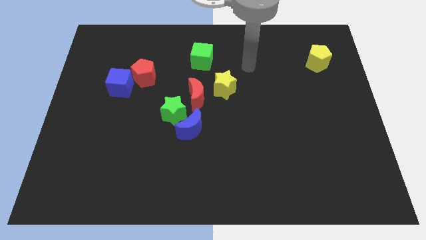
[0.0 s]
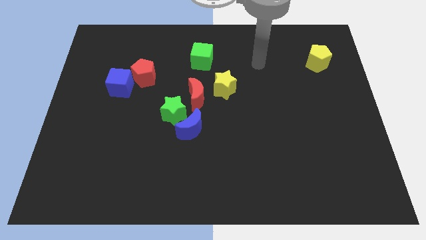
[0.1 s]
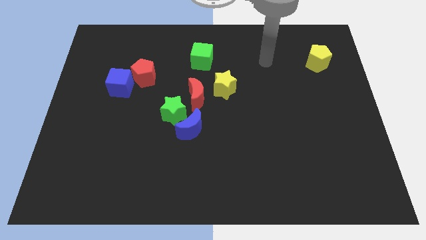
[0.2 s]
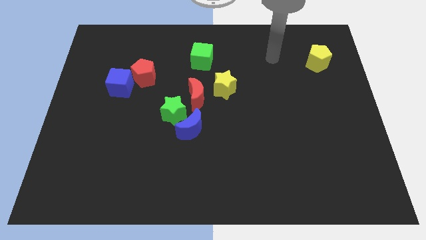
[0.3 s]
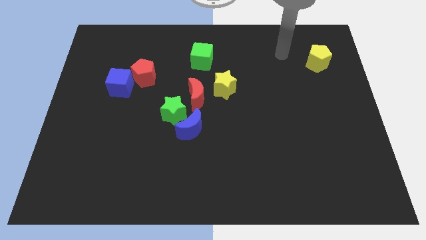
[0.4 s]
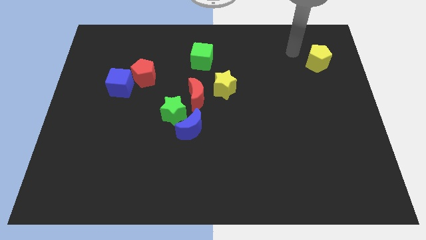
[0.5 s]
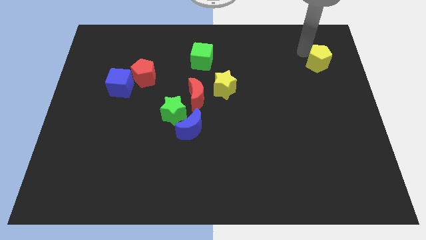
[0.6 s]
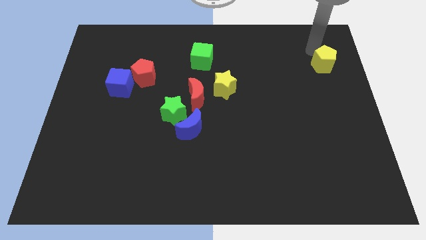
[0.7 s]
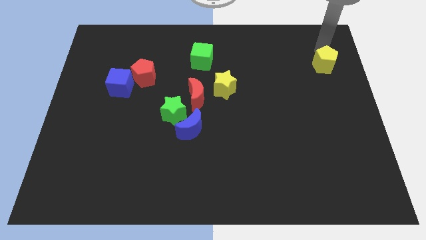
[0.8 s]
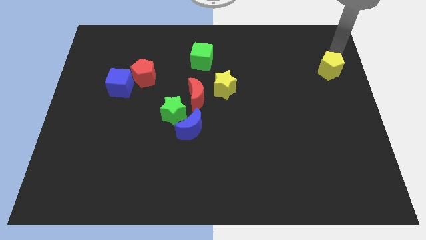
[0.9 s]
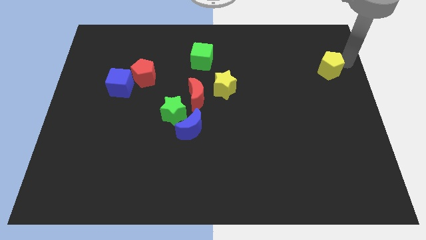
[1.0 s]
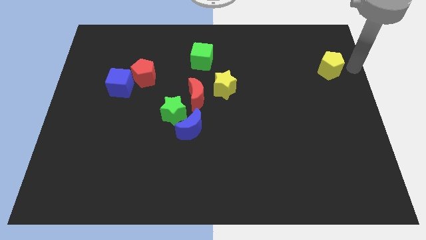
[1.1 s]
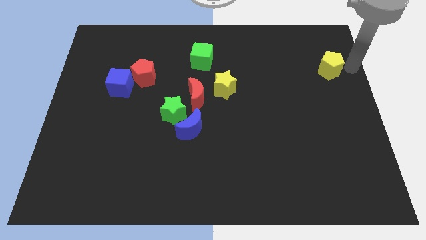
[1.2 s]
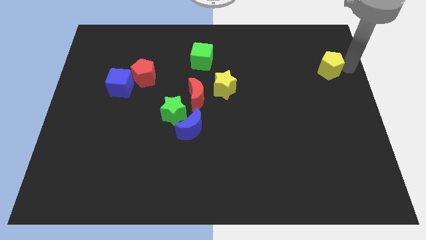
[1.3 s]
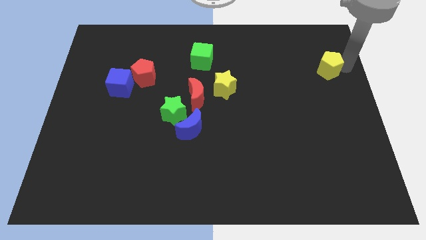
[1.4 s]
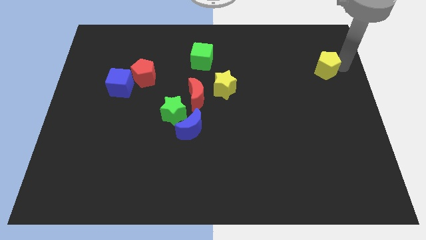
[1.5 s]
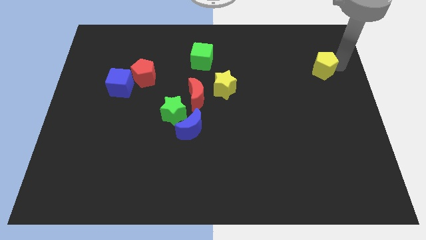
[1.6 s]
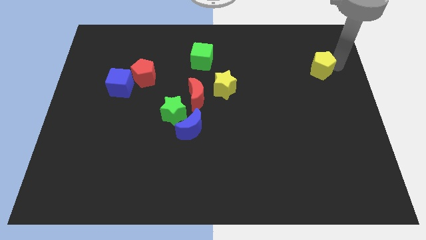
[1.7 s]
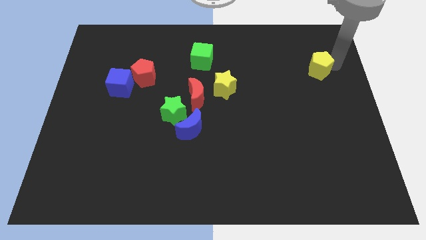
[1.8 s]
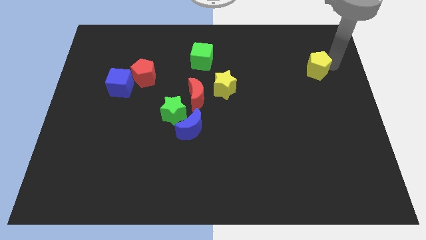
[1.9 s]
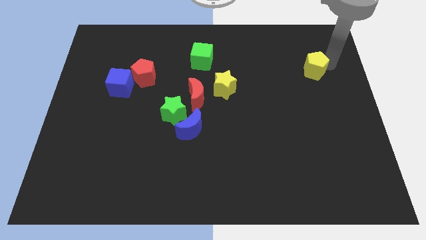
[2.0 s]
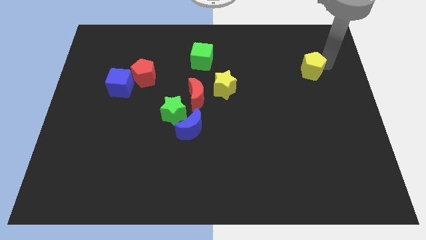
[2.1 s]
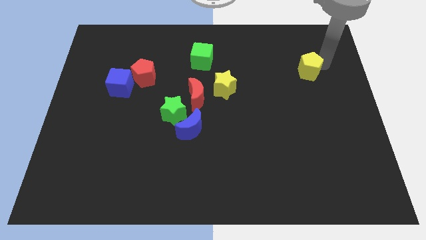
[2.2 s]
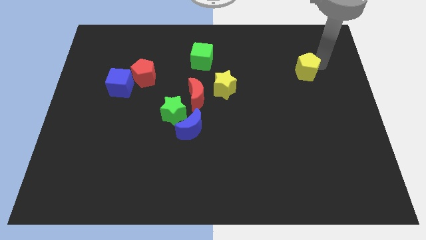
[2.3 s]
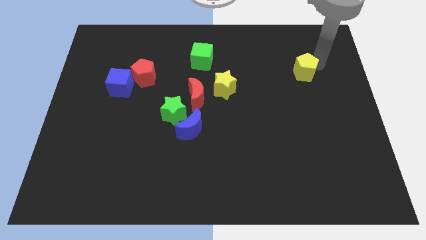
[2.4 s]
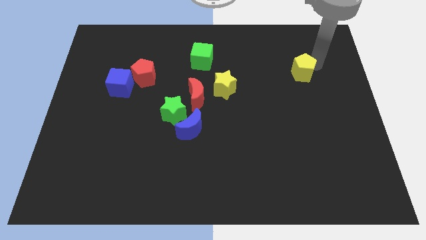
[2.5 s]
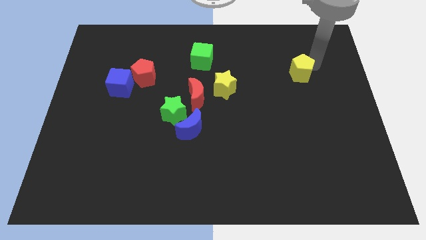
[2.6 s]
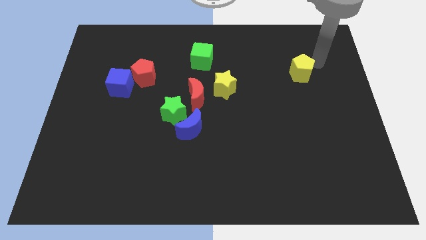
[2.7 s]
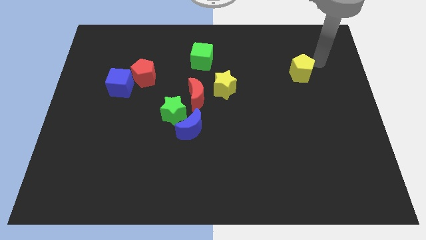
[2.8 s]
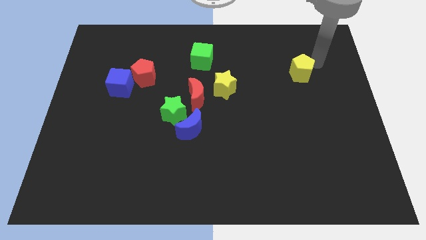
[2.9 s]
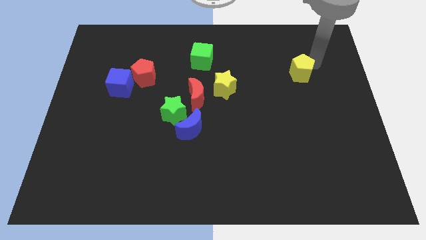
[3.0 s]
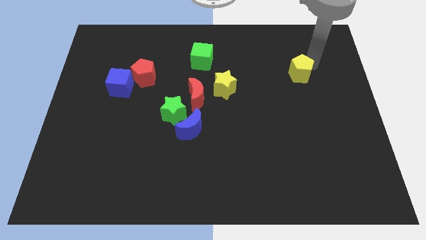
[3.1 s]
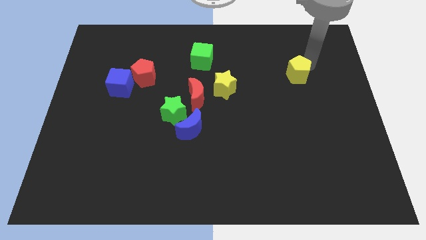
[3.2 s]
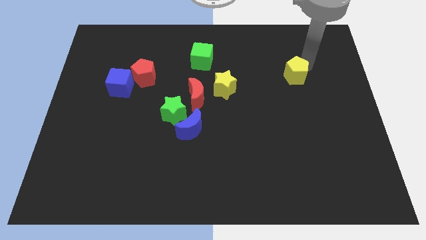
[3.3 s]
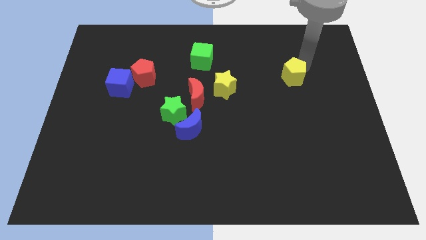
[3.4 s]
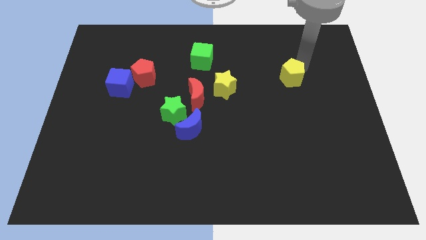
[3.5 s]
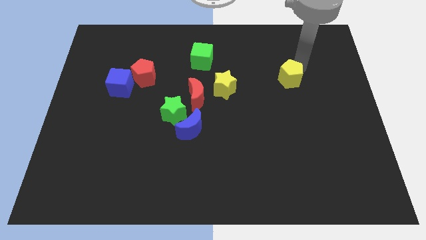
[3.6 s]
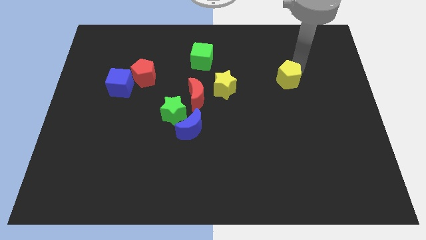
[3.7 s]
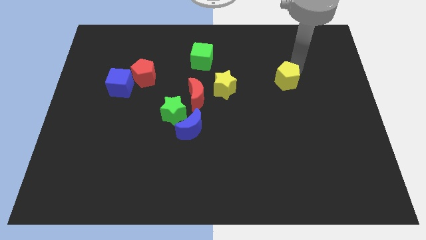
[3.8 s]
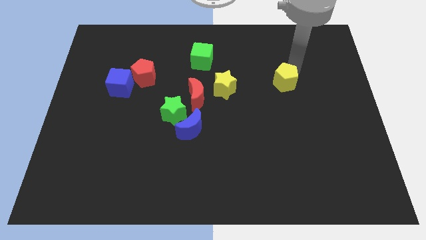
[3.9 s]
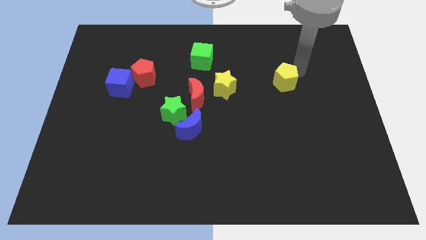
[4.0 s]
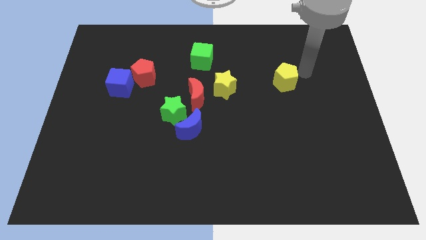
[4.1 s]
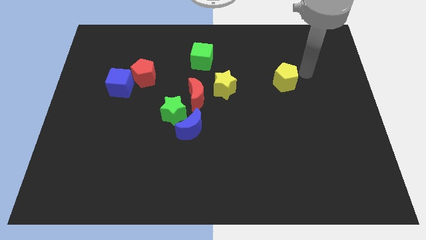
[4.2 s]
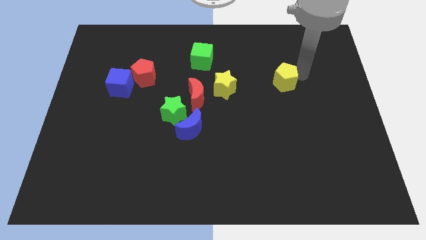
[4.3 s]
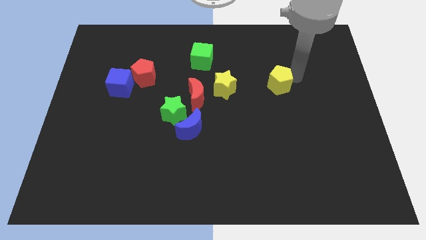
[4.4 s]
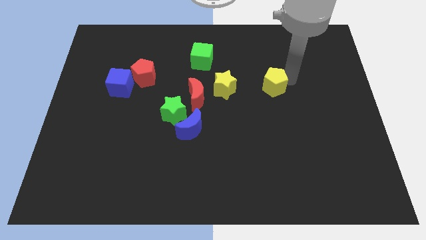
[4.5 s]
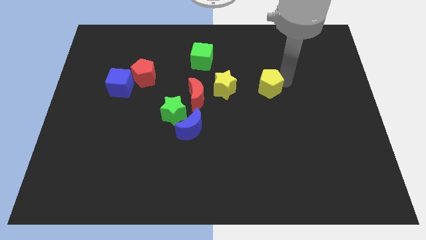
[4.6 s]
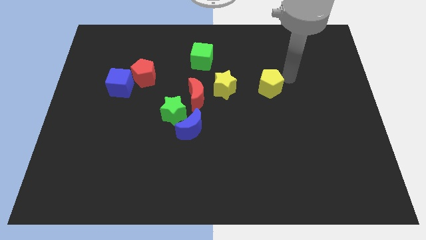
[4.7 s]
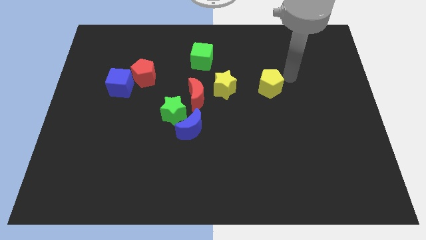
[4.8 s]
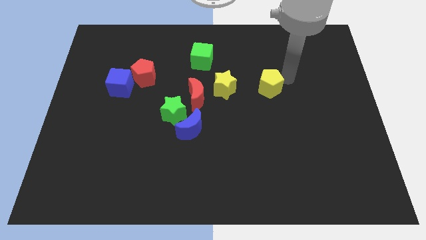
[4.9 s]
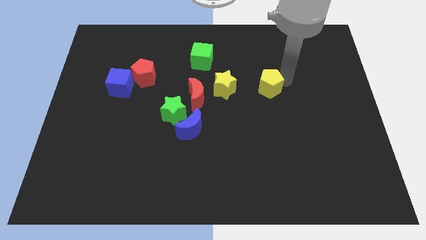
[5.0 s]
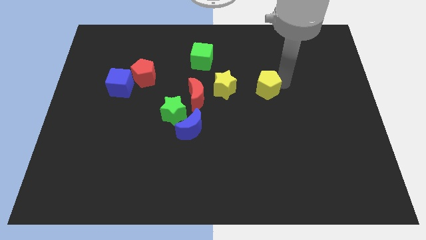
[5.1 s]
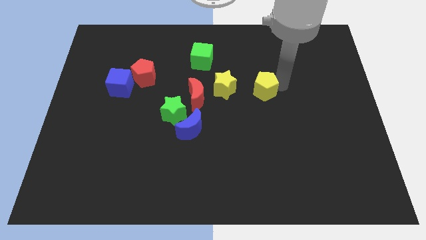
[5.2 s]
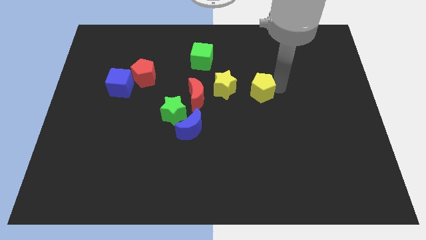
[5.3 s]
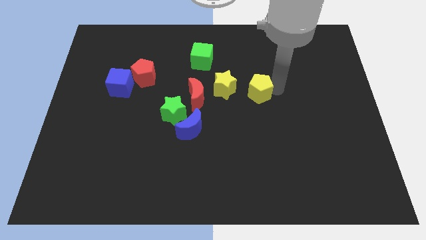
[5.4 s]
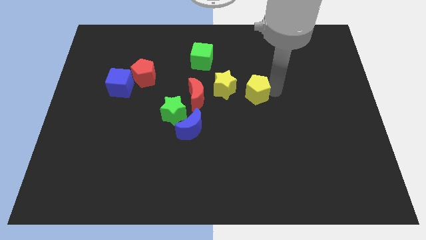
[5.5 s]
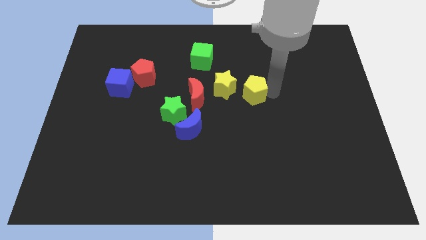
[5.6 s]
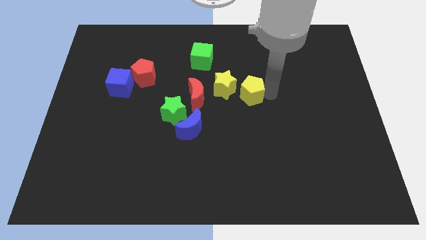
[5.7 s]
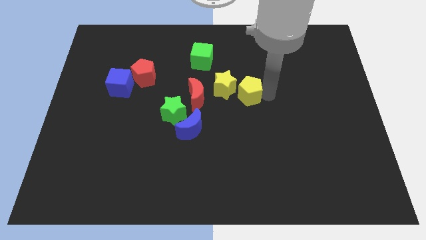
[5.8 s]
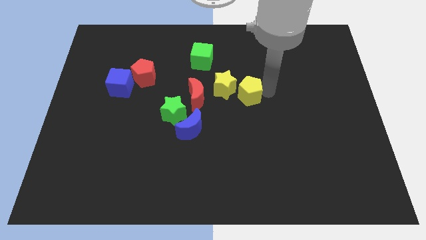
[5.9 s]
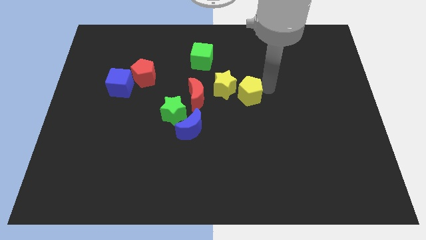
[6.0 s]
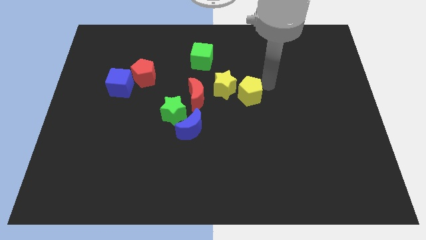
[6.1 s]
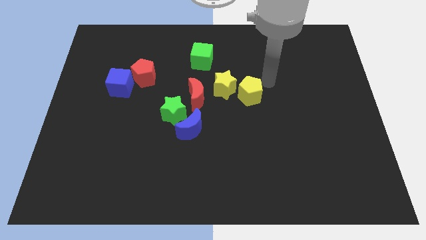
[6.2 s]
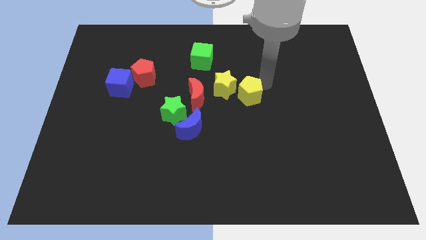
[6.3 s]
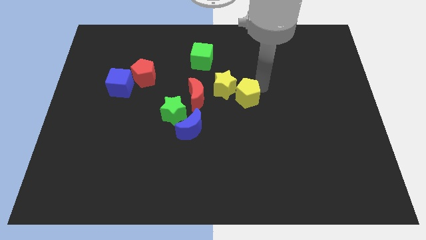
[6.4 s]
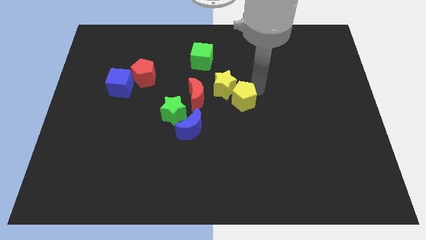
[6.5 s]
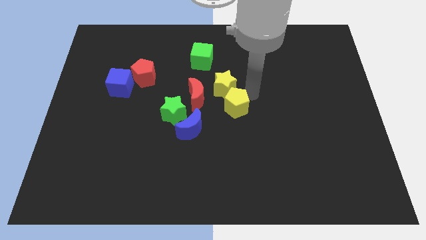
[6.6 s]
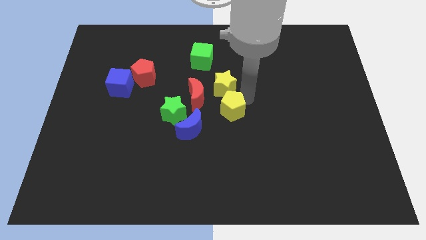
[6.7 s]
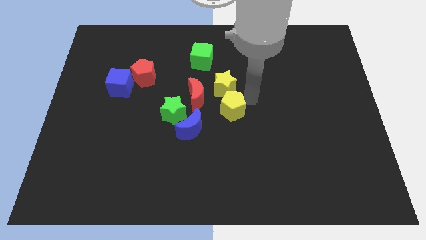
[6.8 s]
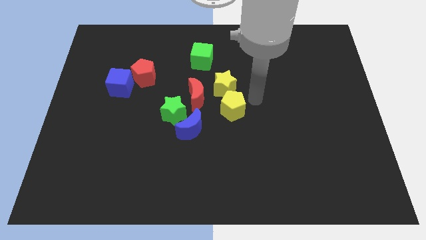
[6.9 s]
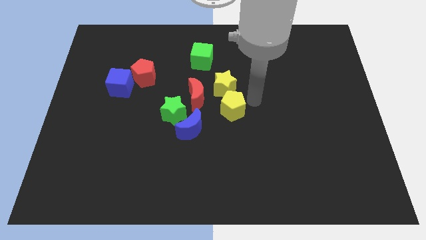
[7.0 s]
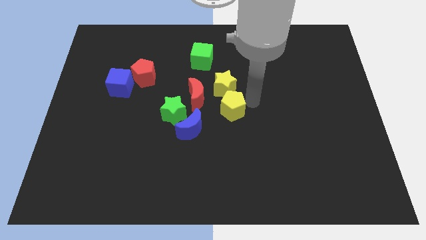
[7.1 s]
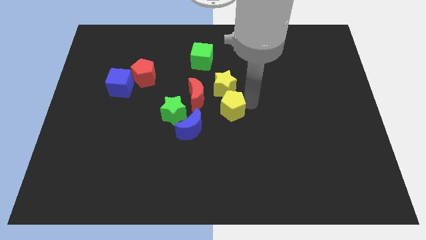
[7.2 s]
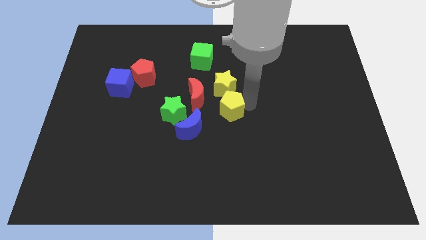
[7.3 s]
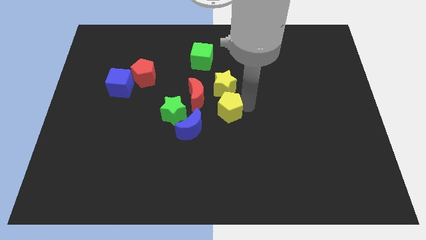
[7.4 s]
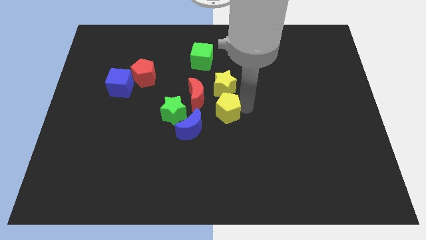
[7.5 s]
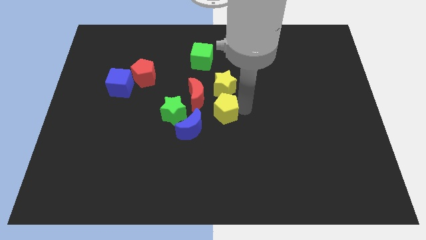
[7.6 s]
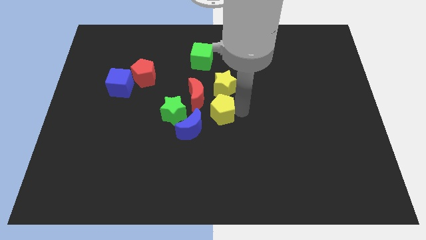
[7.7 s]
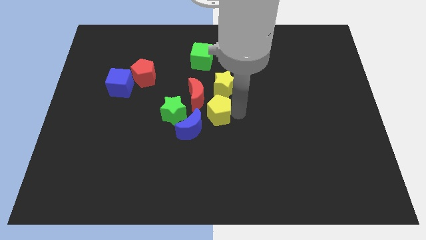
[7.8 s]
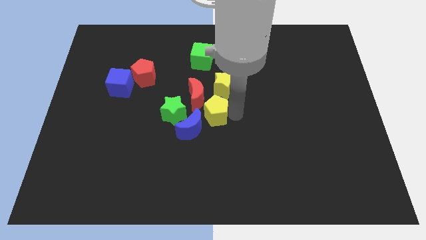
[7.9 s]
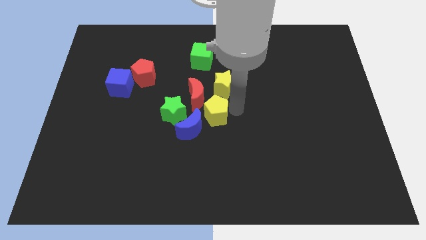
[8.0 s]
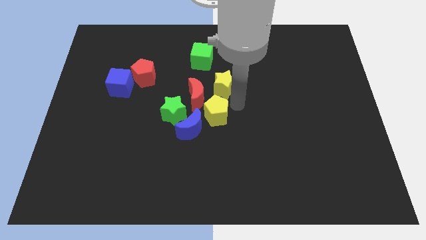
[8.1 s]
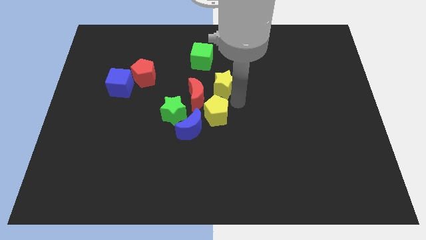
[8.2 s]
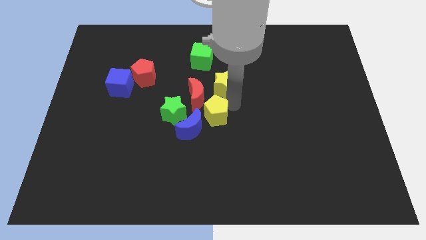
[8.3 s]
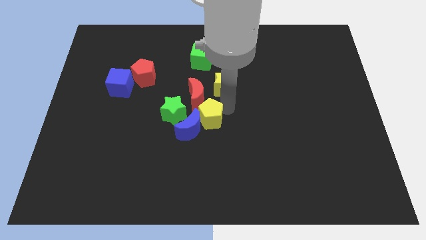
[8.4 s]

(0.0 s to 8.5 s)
put the yellow pentagon to the blue moon
